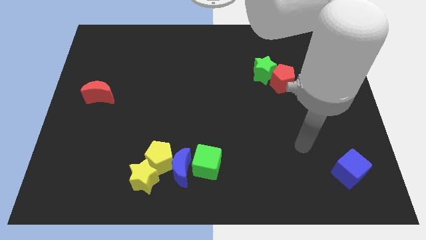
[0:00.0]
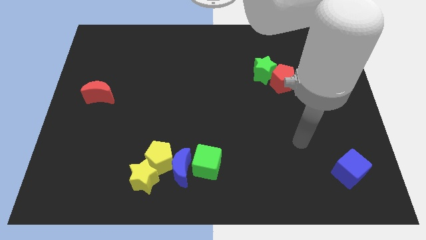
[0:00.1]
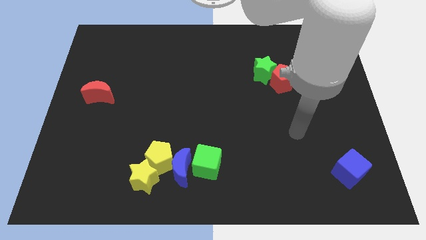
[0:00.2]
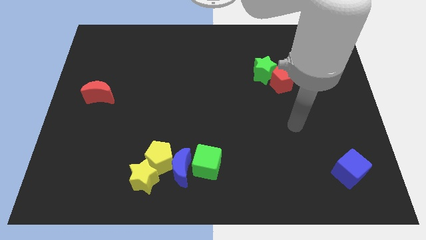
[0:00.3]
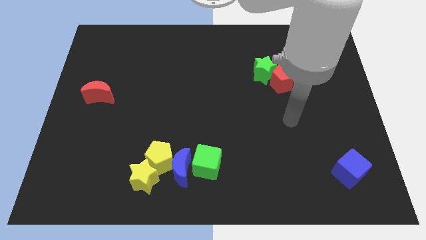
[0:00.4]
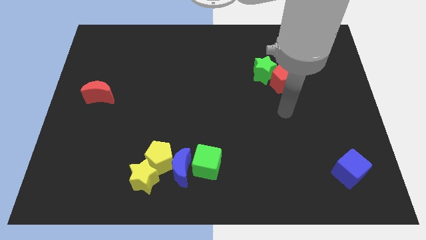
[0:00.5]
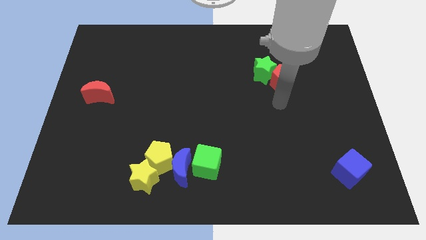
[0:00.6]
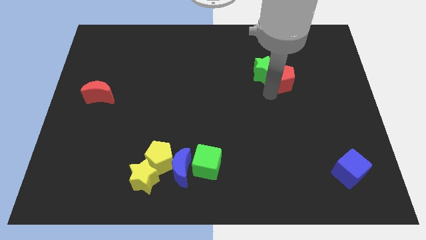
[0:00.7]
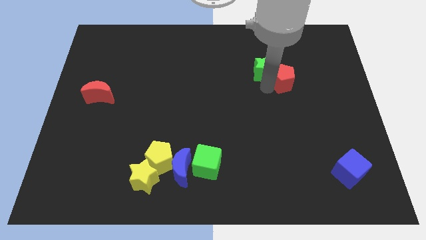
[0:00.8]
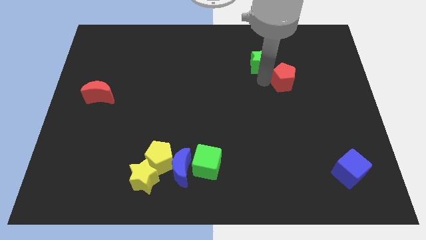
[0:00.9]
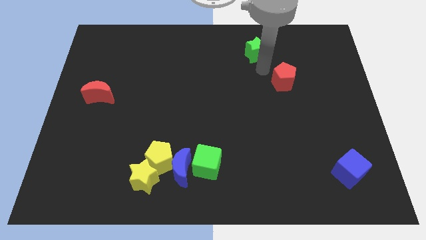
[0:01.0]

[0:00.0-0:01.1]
separate the red pentagon from the green star

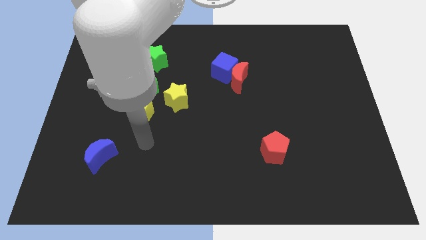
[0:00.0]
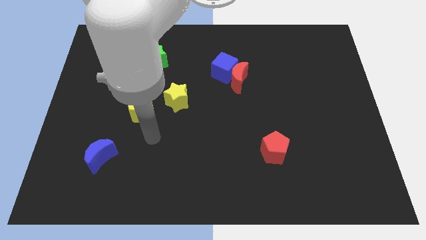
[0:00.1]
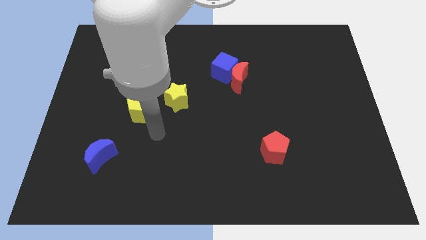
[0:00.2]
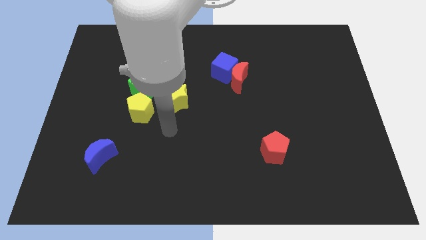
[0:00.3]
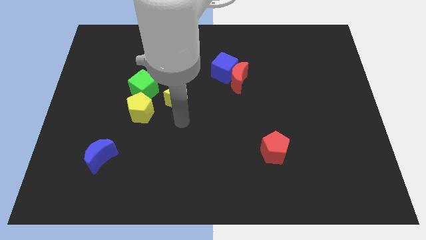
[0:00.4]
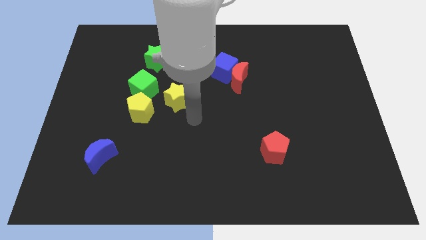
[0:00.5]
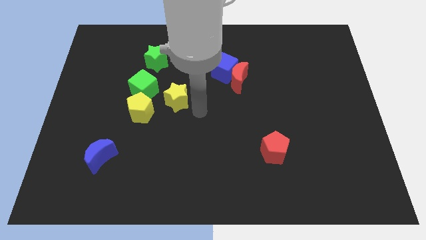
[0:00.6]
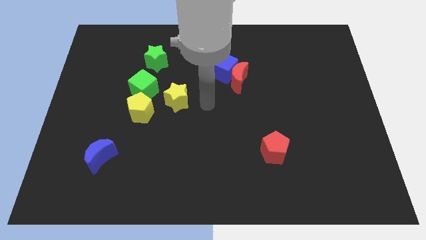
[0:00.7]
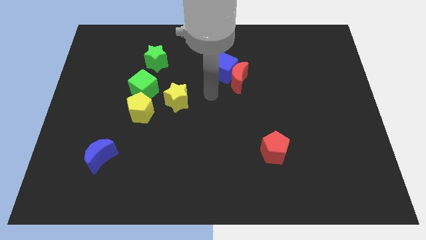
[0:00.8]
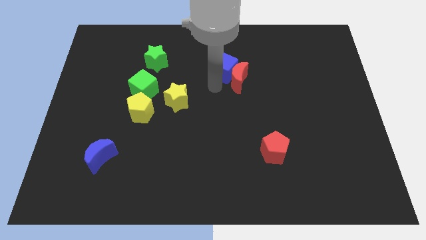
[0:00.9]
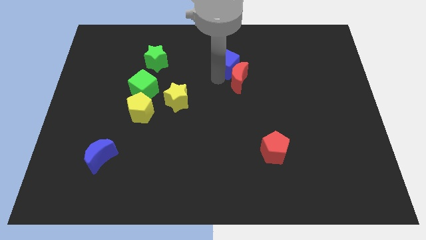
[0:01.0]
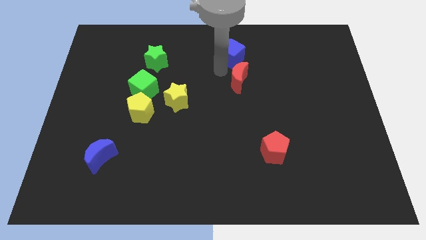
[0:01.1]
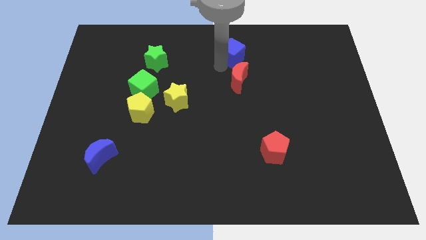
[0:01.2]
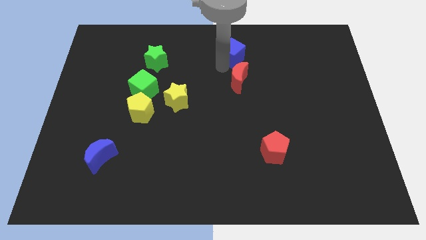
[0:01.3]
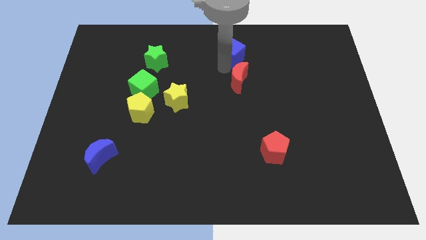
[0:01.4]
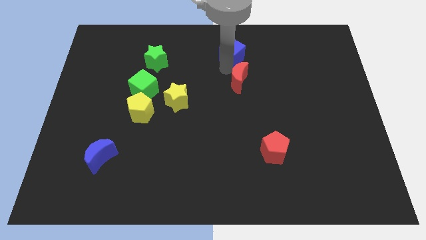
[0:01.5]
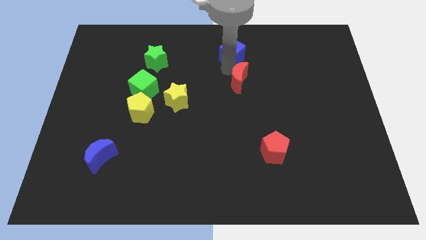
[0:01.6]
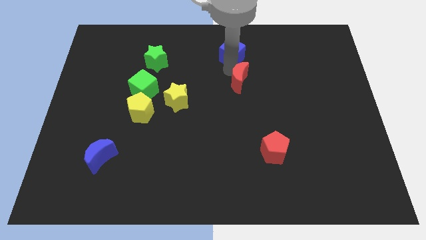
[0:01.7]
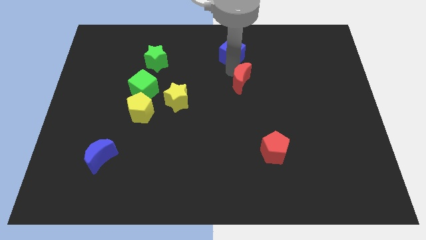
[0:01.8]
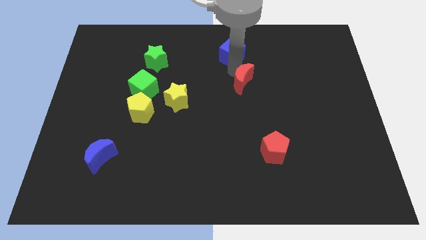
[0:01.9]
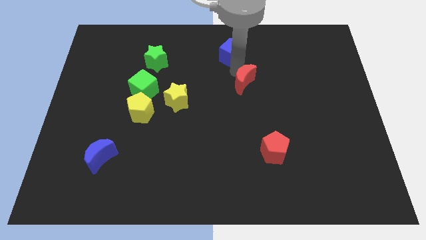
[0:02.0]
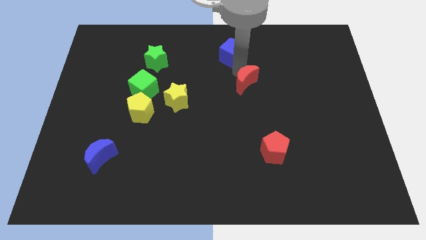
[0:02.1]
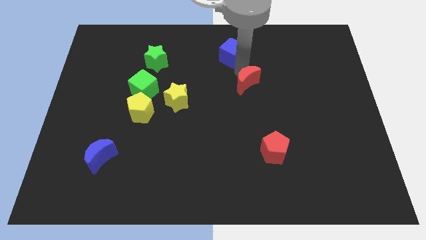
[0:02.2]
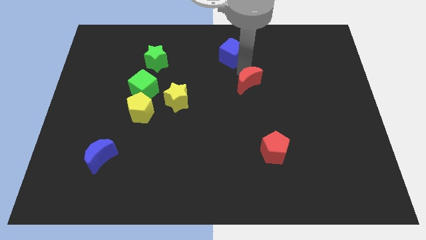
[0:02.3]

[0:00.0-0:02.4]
move the red moon away from the blue cube

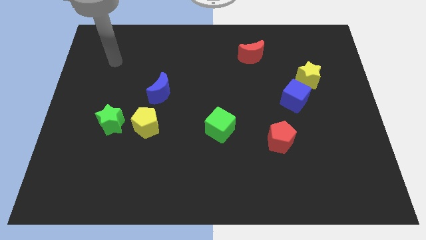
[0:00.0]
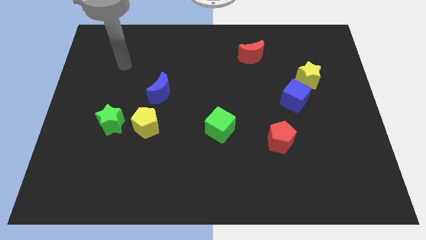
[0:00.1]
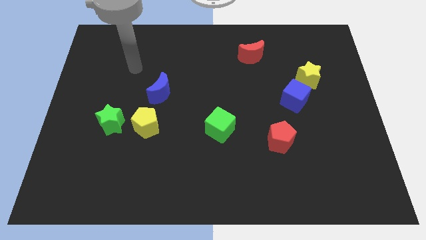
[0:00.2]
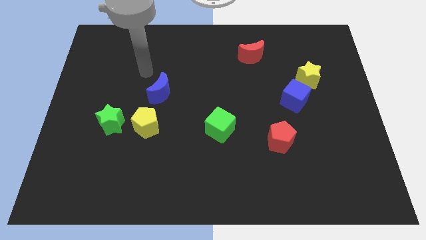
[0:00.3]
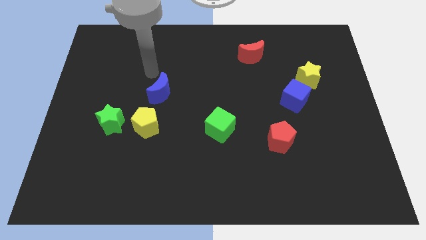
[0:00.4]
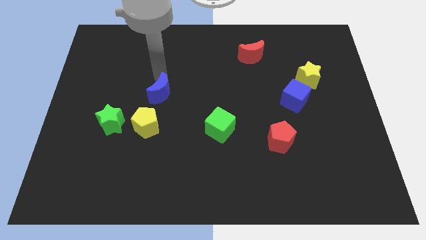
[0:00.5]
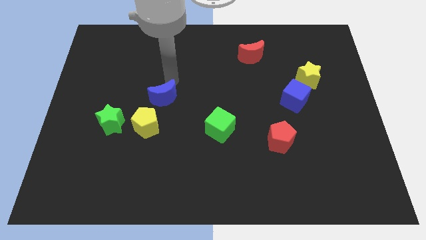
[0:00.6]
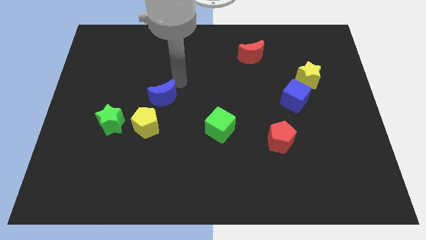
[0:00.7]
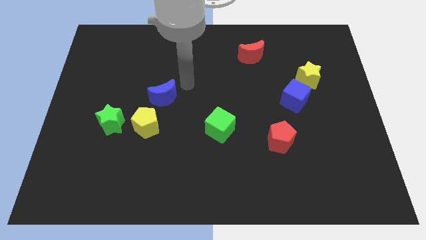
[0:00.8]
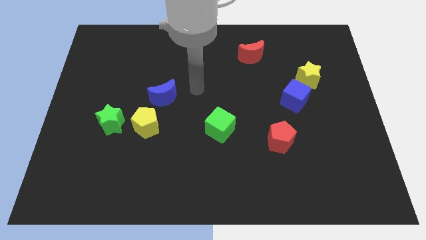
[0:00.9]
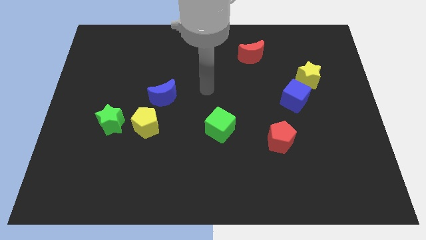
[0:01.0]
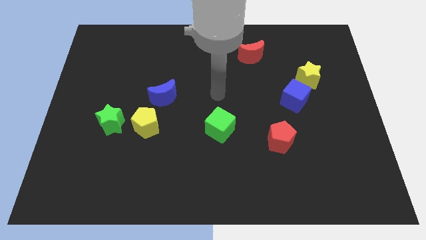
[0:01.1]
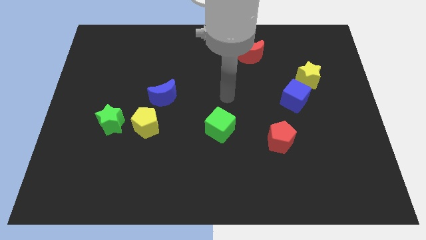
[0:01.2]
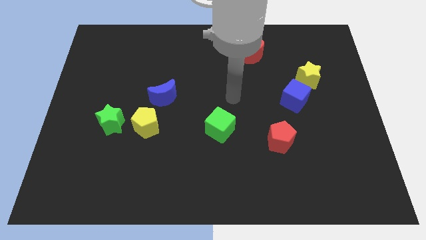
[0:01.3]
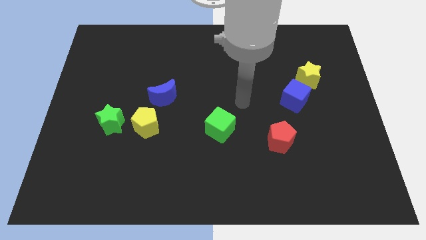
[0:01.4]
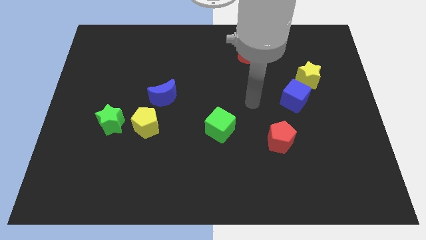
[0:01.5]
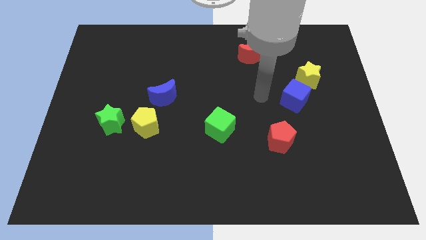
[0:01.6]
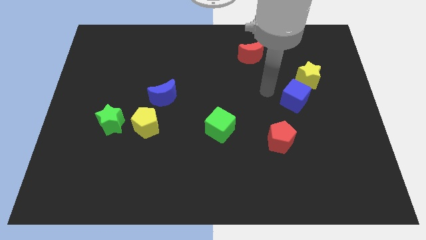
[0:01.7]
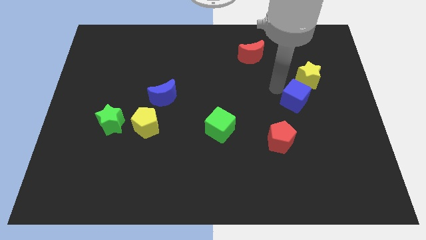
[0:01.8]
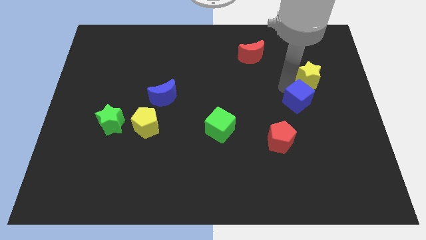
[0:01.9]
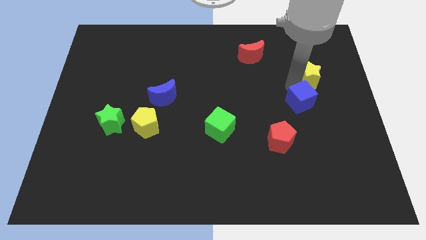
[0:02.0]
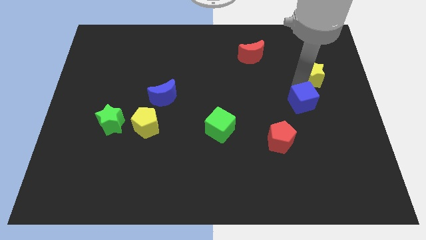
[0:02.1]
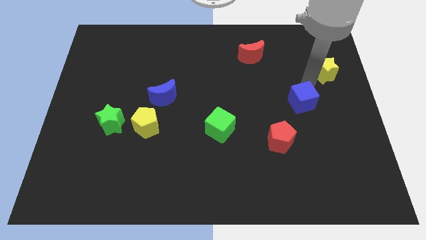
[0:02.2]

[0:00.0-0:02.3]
pull the blue cube apart from the yellow star

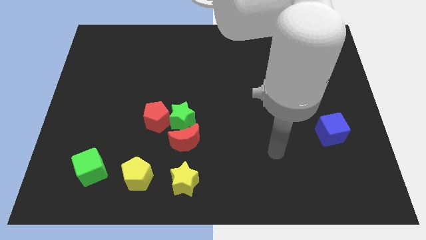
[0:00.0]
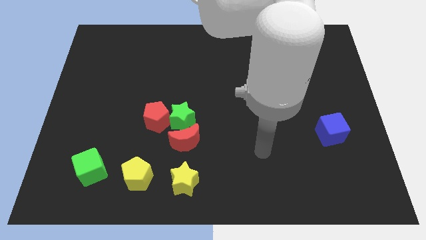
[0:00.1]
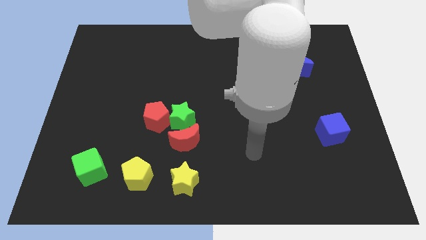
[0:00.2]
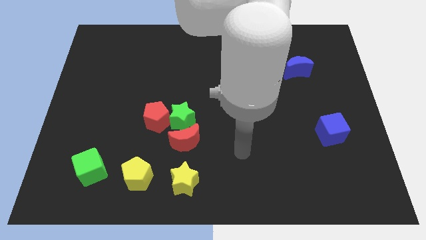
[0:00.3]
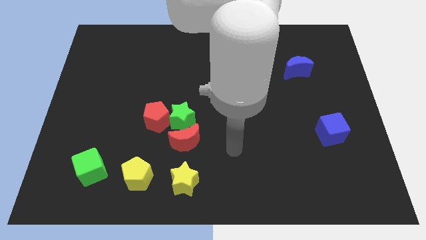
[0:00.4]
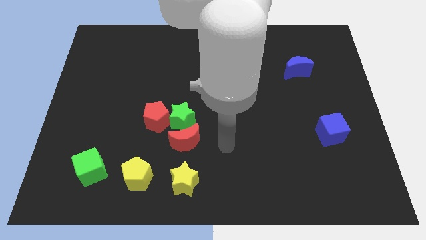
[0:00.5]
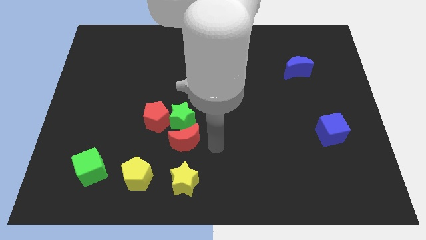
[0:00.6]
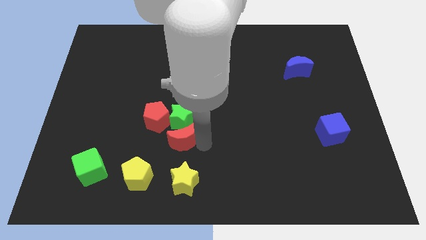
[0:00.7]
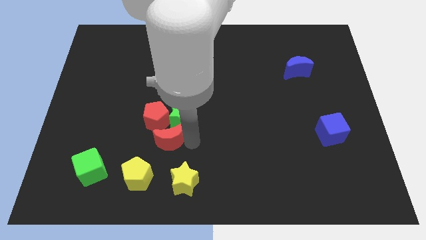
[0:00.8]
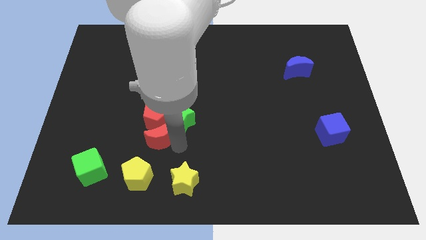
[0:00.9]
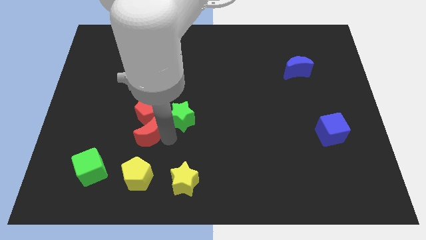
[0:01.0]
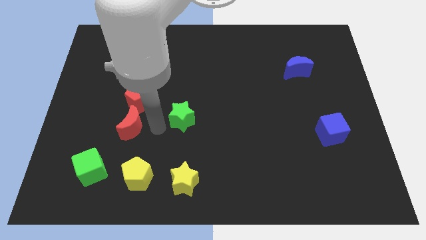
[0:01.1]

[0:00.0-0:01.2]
move the green star away from the red moon and red pentagon

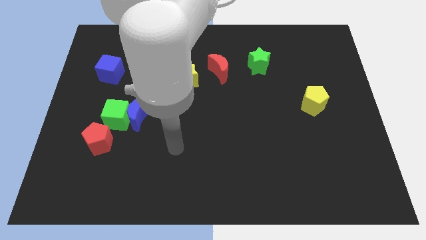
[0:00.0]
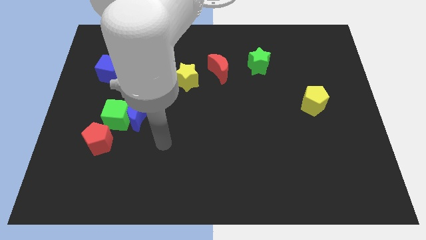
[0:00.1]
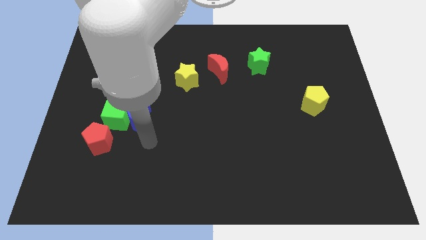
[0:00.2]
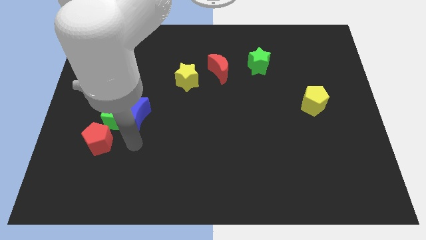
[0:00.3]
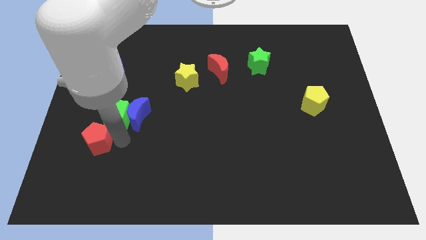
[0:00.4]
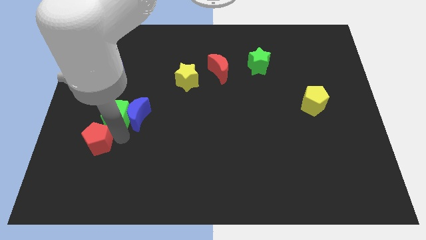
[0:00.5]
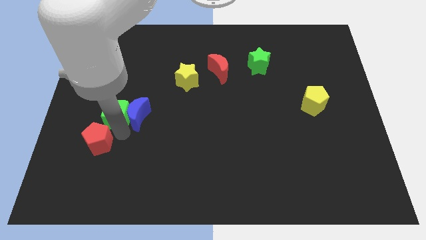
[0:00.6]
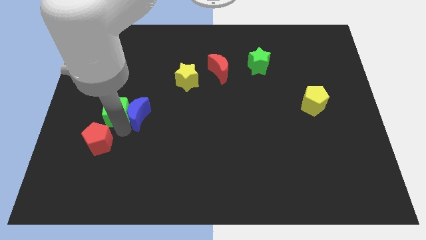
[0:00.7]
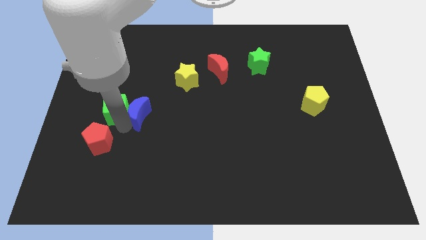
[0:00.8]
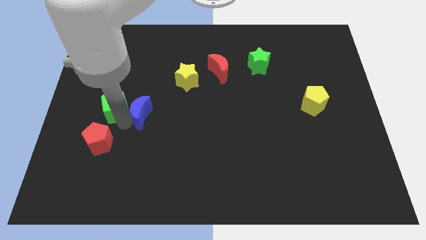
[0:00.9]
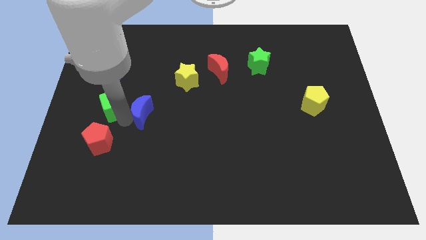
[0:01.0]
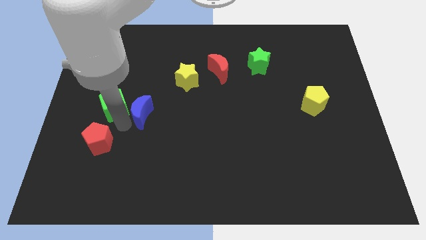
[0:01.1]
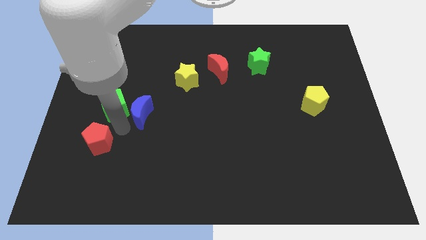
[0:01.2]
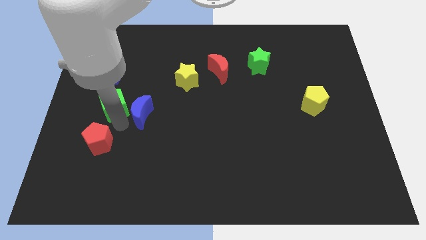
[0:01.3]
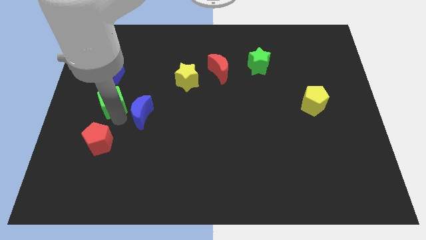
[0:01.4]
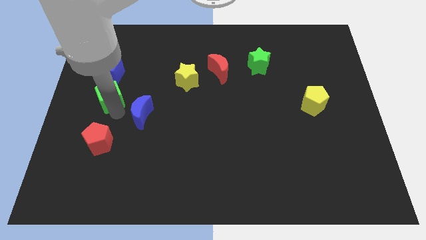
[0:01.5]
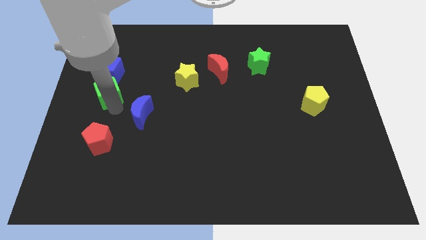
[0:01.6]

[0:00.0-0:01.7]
move the green cube away from the blue moon and red pentagon

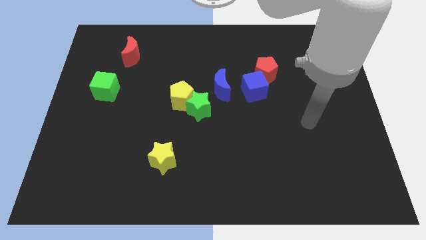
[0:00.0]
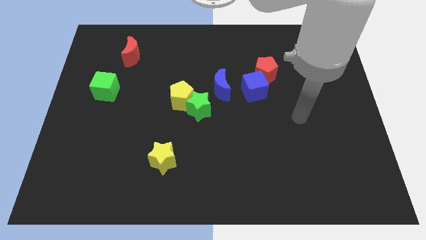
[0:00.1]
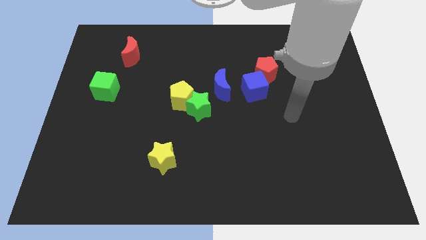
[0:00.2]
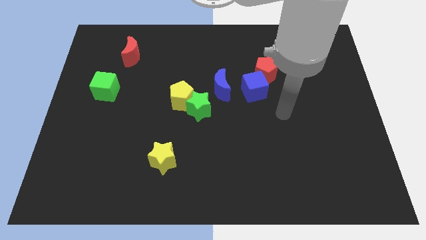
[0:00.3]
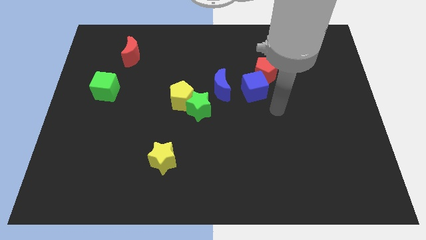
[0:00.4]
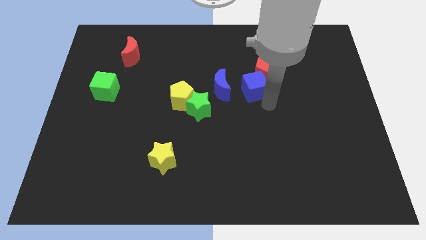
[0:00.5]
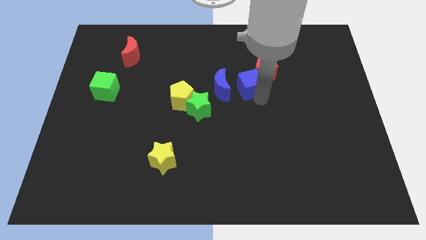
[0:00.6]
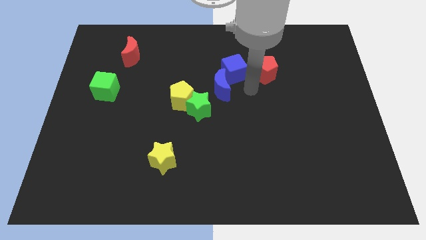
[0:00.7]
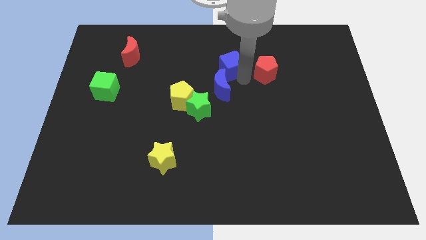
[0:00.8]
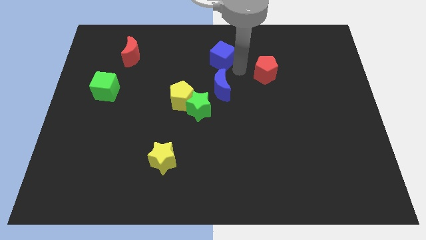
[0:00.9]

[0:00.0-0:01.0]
separate the red pentagon from the blue cube
